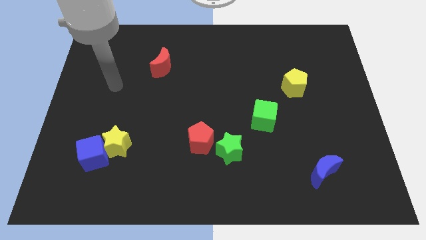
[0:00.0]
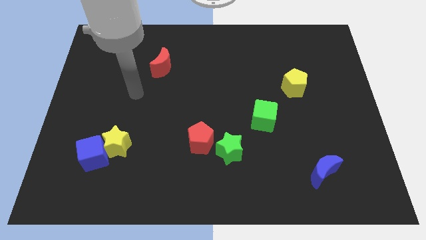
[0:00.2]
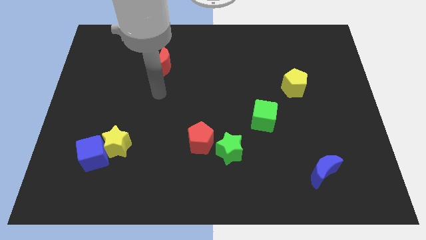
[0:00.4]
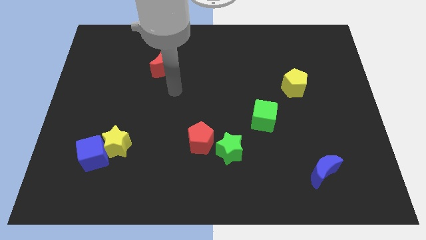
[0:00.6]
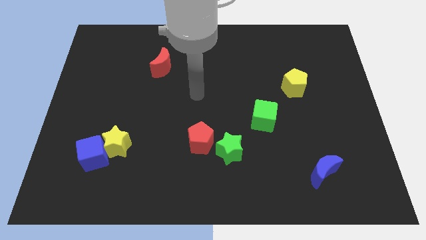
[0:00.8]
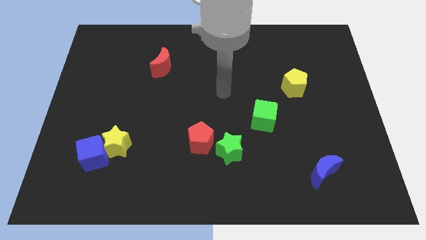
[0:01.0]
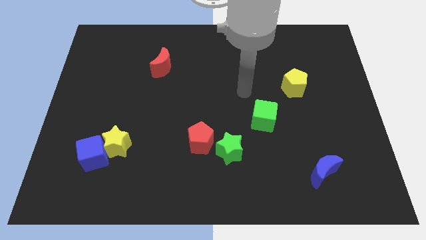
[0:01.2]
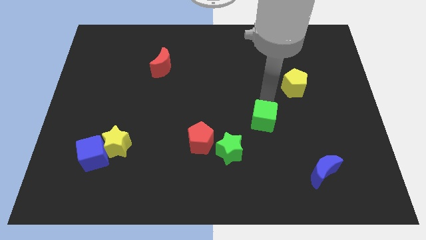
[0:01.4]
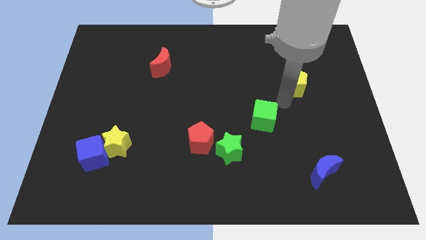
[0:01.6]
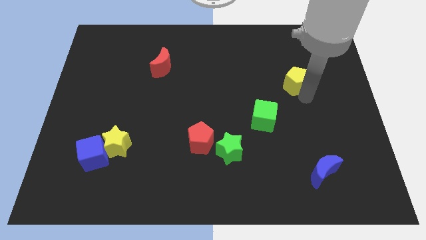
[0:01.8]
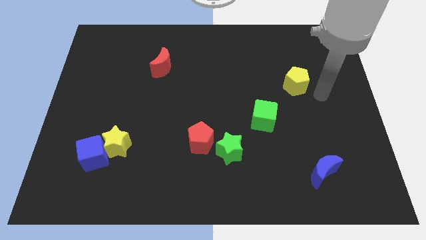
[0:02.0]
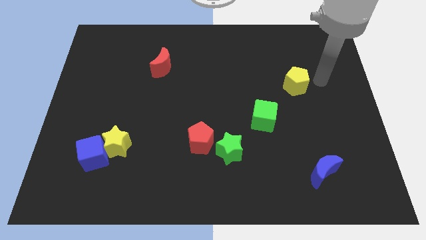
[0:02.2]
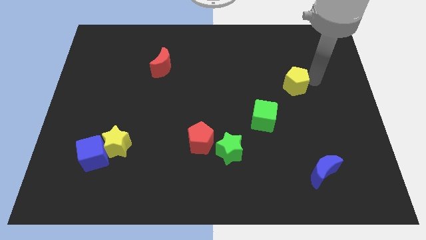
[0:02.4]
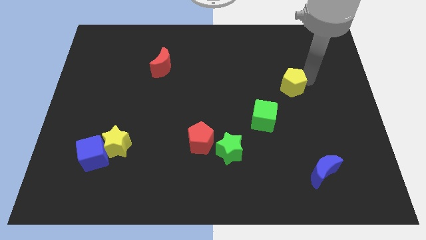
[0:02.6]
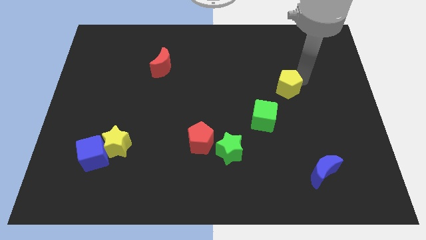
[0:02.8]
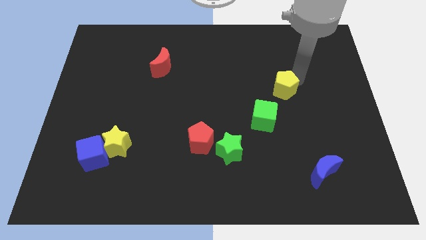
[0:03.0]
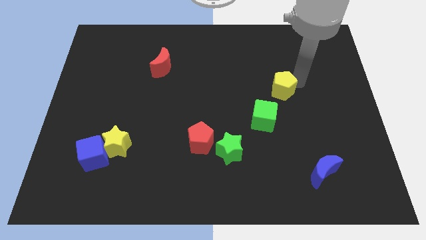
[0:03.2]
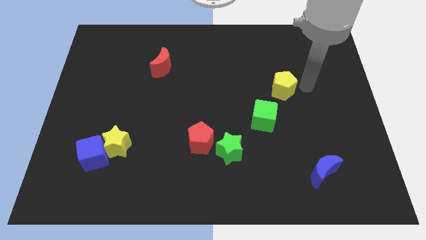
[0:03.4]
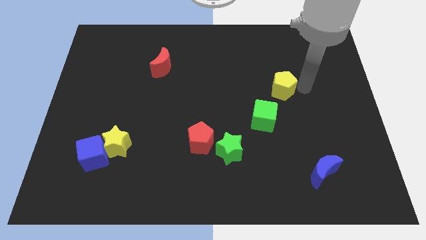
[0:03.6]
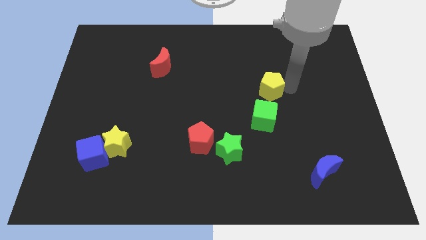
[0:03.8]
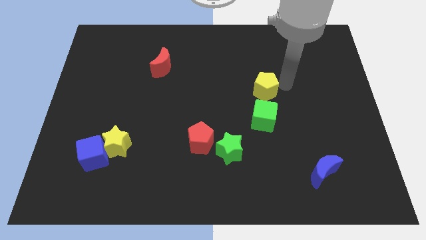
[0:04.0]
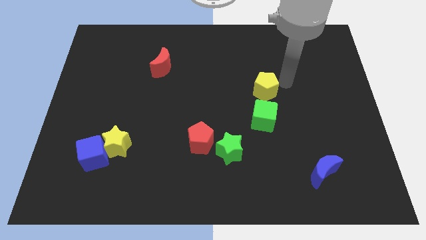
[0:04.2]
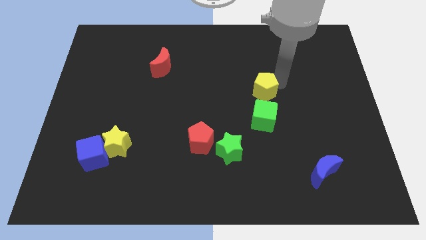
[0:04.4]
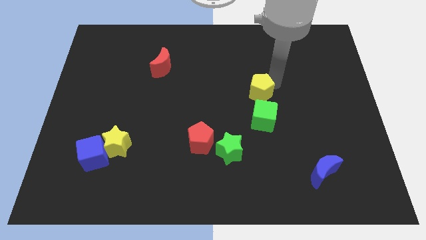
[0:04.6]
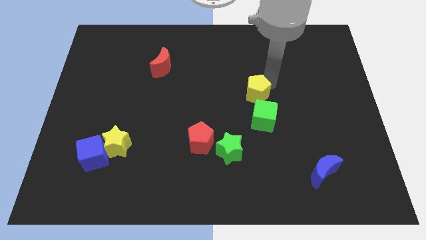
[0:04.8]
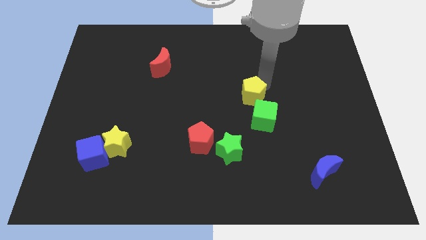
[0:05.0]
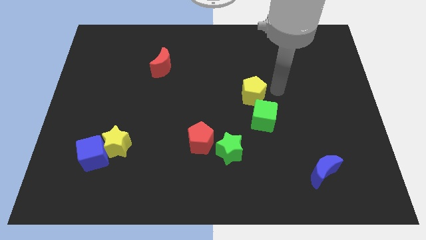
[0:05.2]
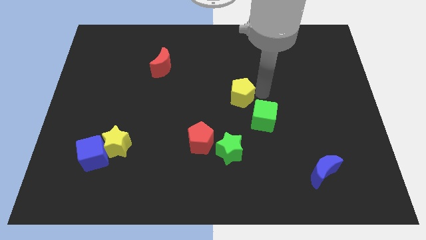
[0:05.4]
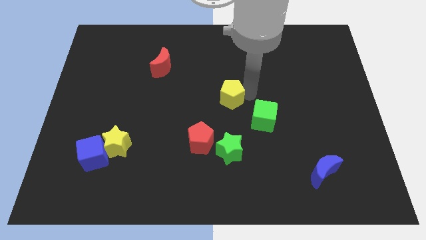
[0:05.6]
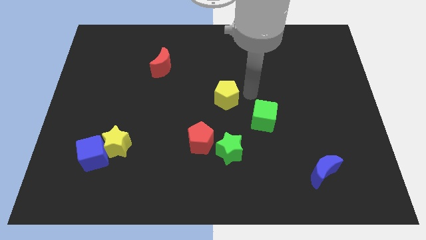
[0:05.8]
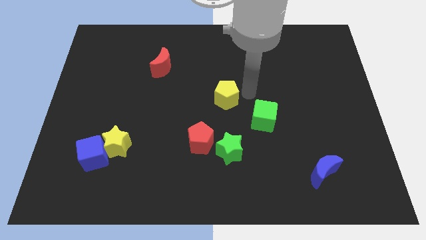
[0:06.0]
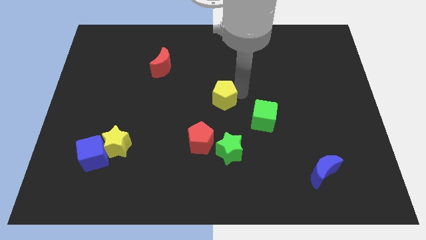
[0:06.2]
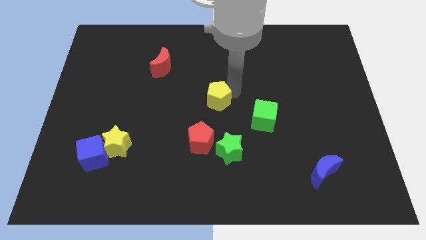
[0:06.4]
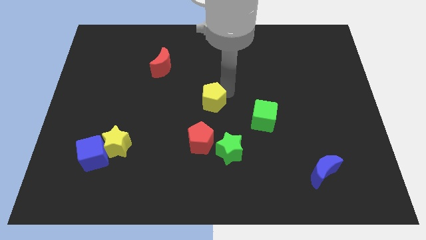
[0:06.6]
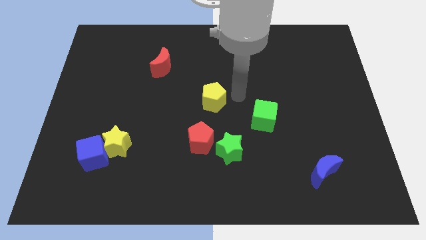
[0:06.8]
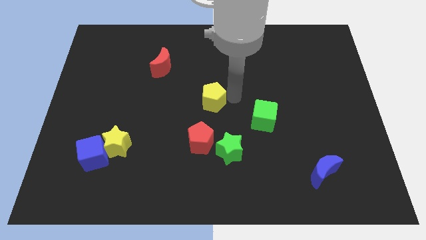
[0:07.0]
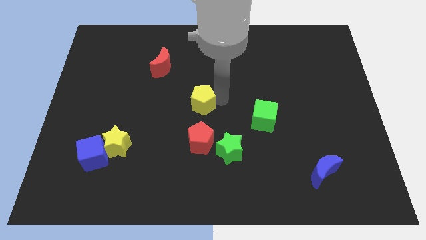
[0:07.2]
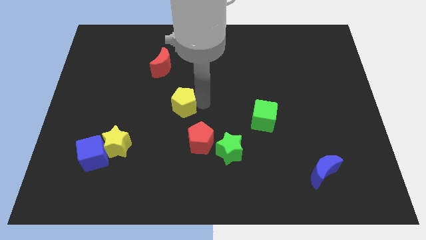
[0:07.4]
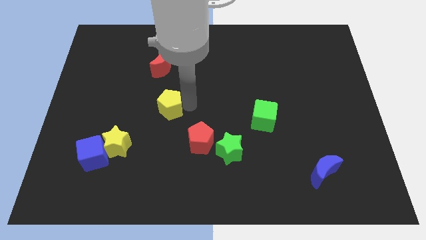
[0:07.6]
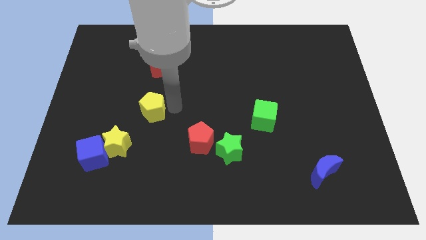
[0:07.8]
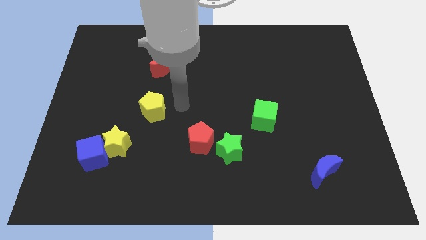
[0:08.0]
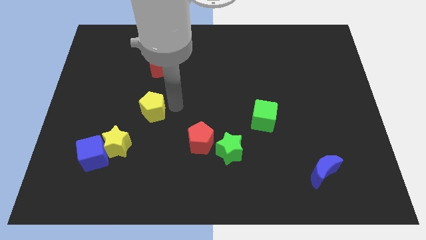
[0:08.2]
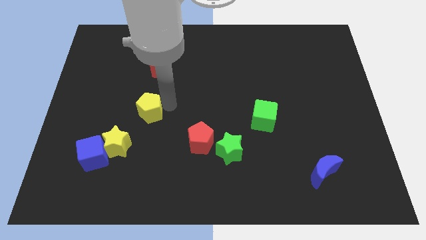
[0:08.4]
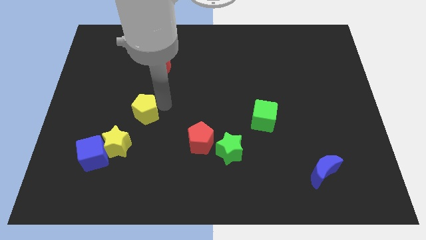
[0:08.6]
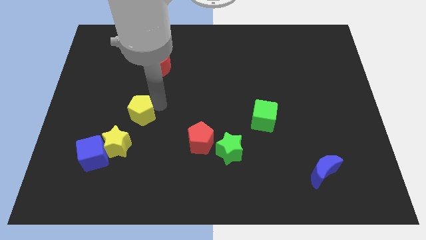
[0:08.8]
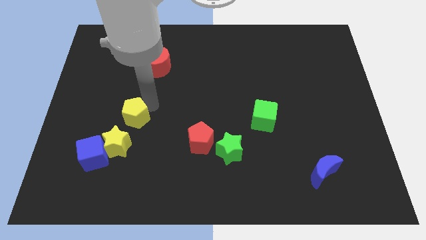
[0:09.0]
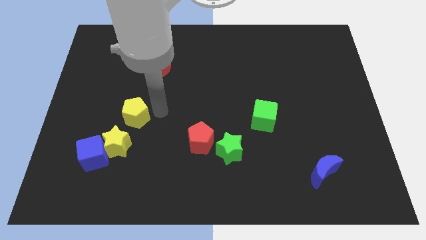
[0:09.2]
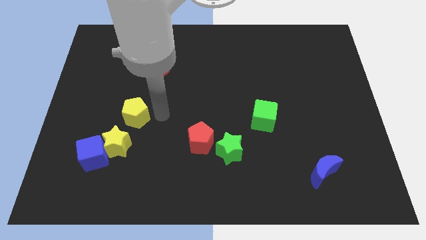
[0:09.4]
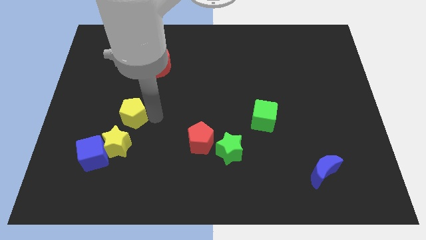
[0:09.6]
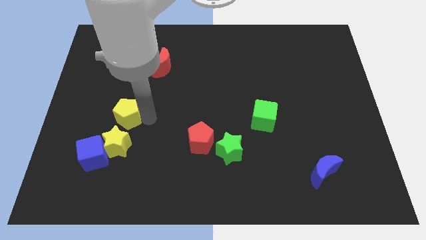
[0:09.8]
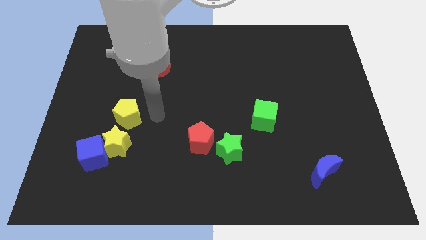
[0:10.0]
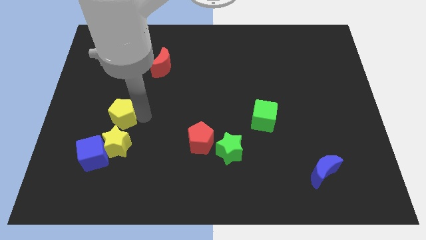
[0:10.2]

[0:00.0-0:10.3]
put the yellow pentagon to the top side of the blue cube

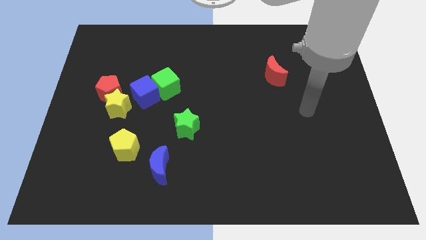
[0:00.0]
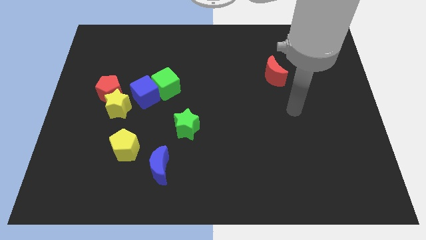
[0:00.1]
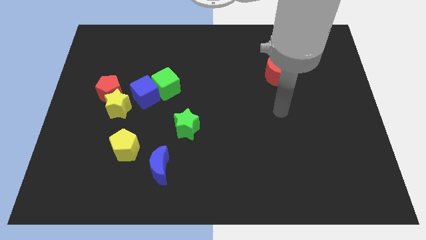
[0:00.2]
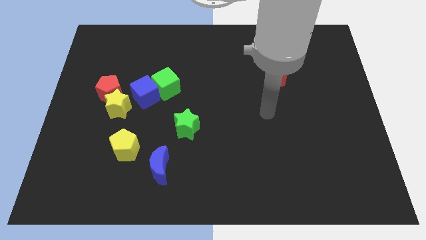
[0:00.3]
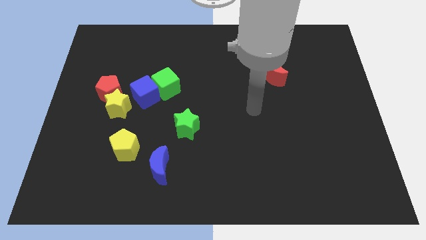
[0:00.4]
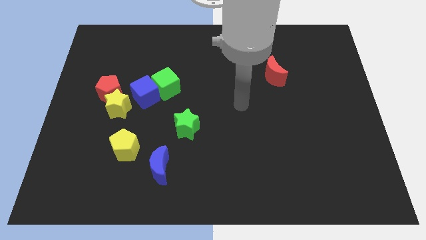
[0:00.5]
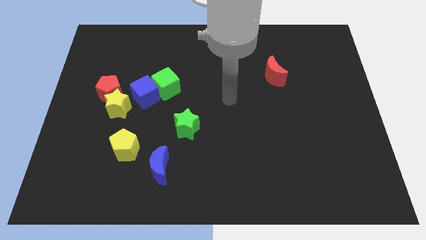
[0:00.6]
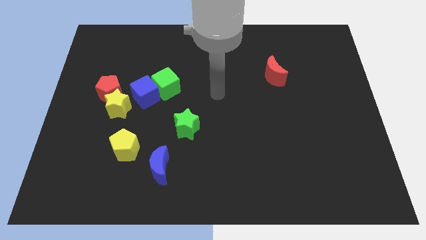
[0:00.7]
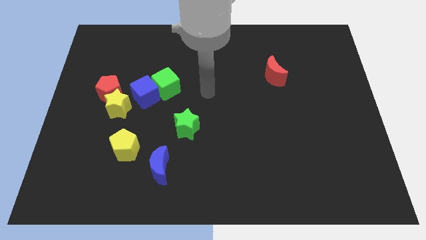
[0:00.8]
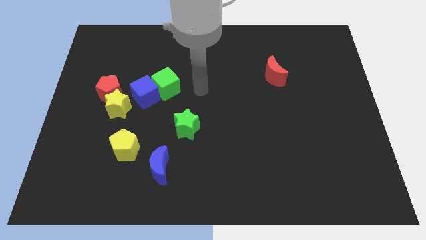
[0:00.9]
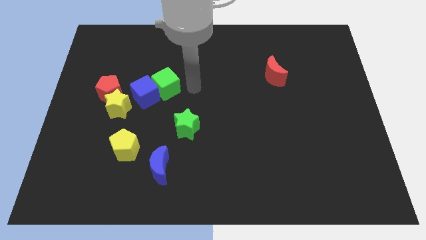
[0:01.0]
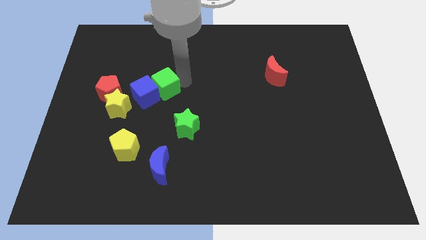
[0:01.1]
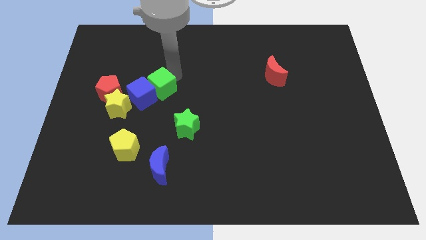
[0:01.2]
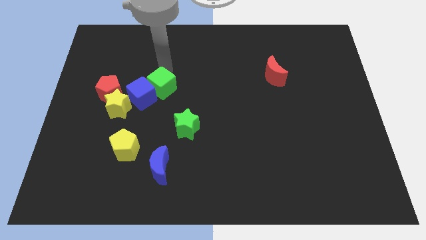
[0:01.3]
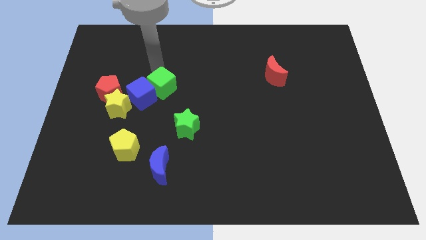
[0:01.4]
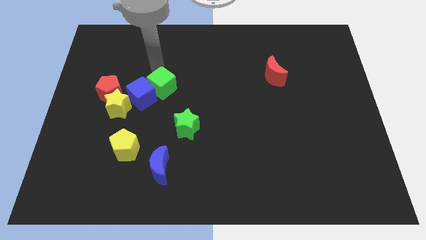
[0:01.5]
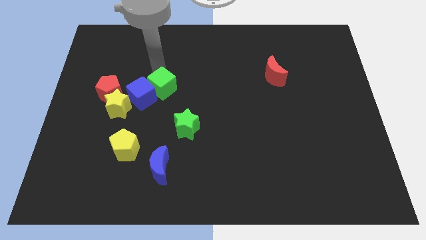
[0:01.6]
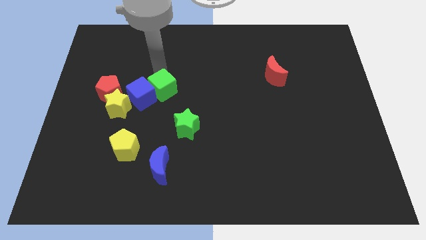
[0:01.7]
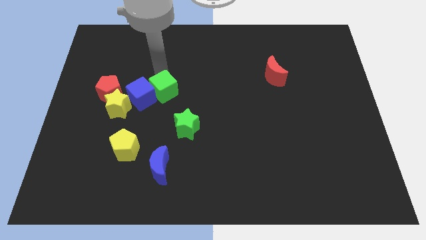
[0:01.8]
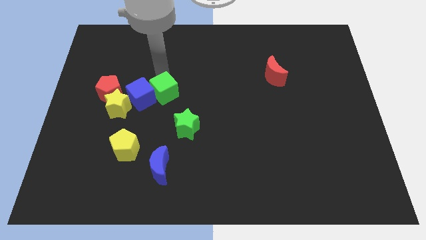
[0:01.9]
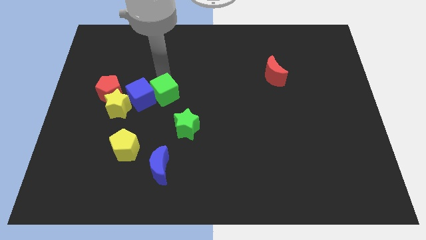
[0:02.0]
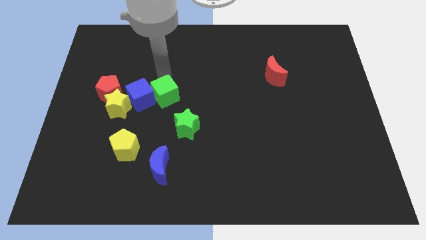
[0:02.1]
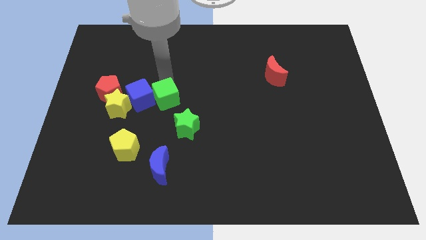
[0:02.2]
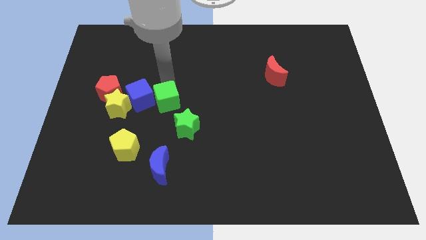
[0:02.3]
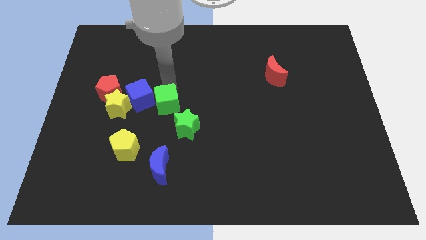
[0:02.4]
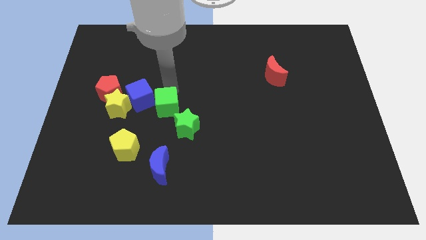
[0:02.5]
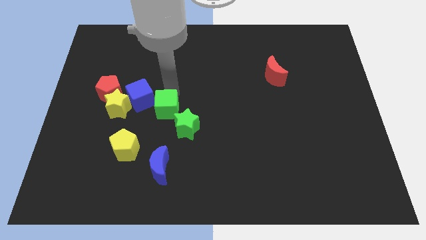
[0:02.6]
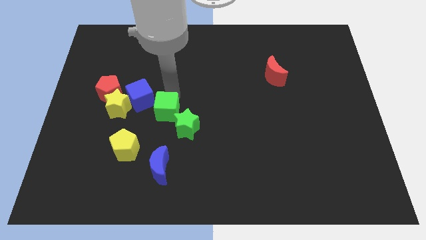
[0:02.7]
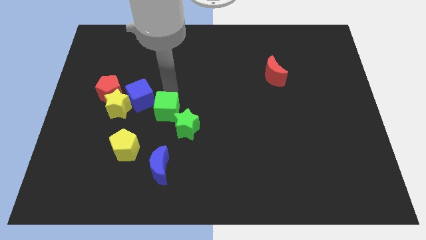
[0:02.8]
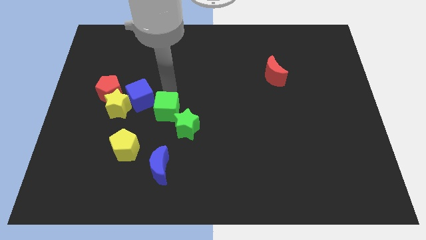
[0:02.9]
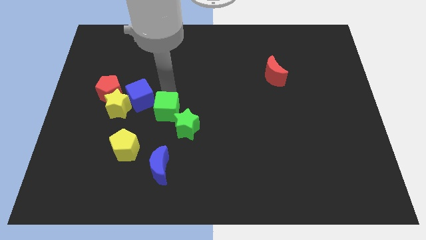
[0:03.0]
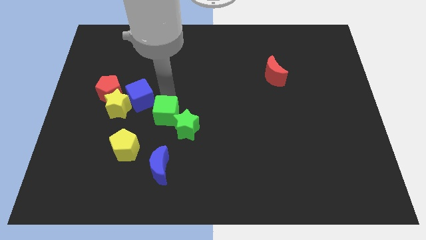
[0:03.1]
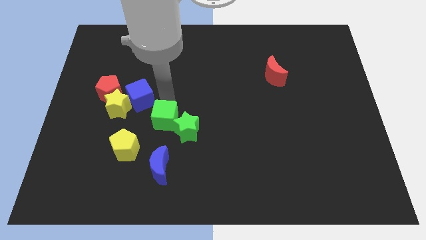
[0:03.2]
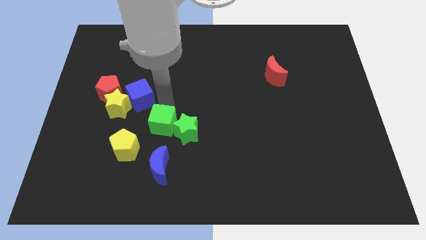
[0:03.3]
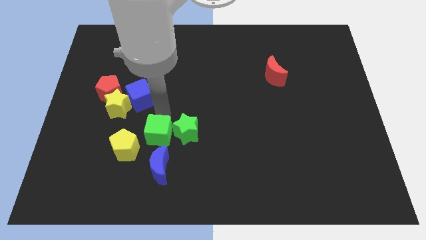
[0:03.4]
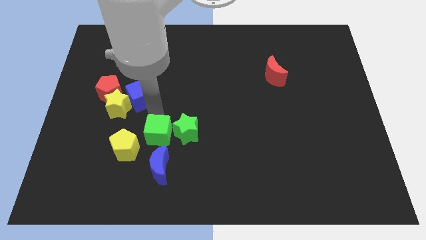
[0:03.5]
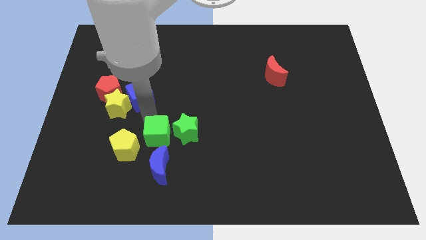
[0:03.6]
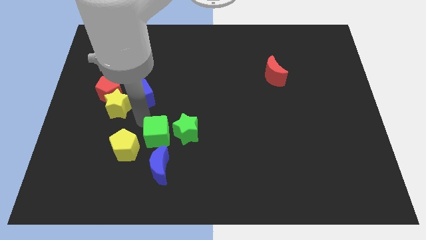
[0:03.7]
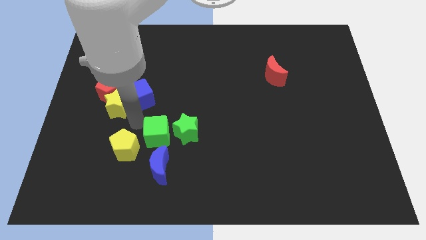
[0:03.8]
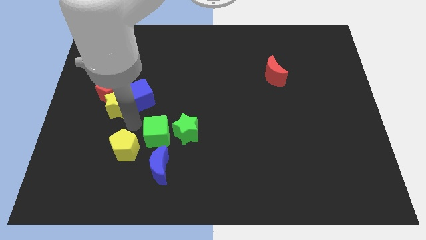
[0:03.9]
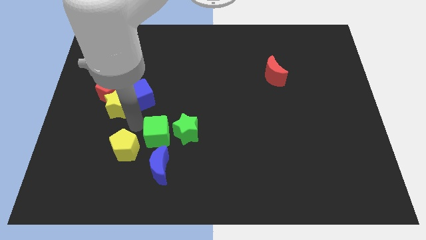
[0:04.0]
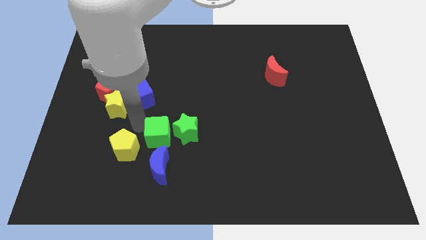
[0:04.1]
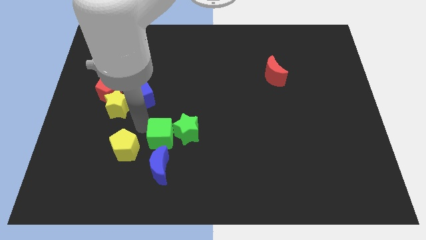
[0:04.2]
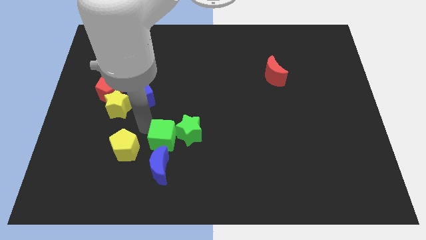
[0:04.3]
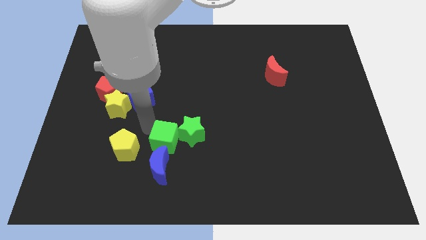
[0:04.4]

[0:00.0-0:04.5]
slide the green cube to the top right of the blue moon
